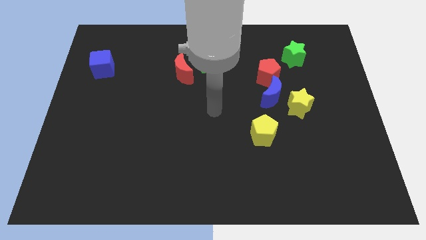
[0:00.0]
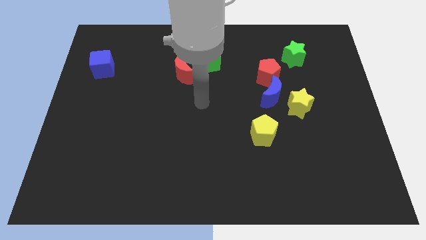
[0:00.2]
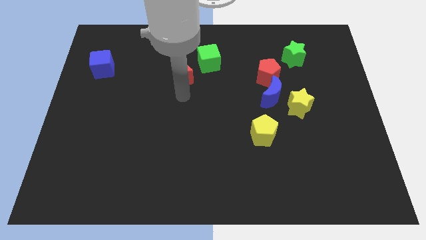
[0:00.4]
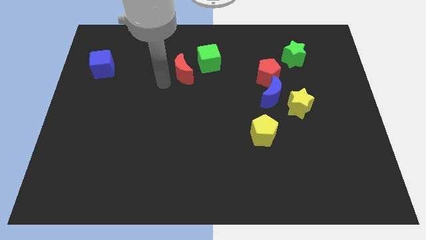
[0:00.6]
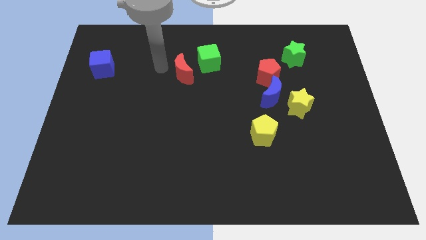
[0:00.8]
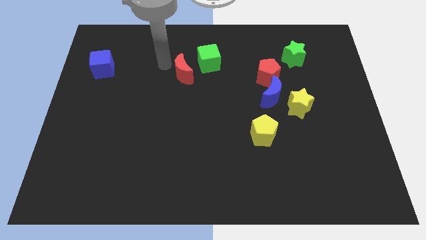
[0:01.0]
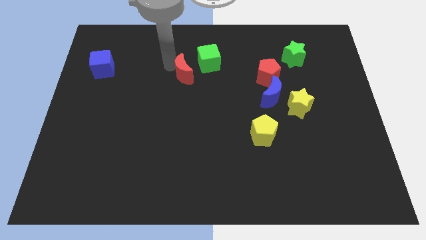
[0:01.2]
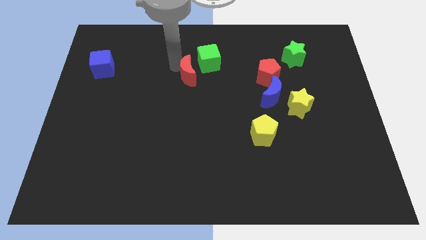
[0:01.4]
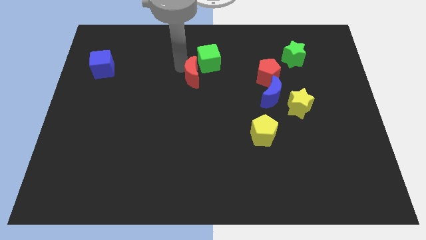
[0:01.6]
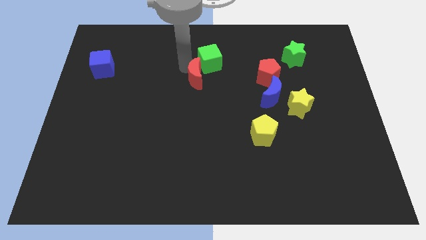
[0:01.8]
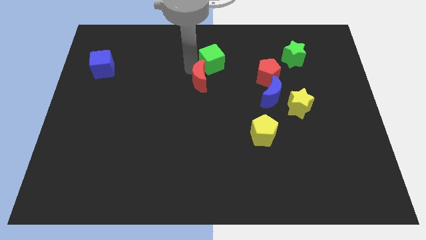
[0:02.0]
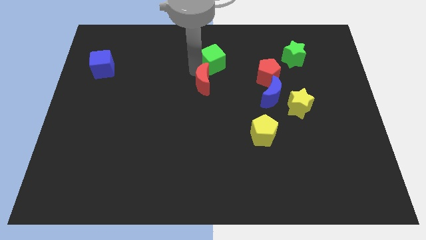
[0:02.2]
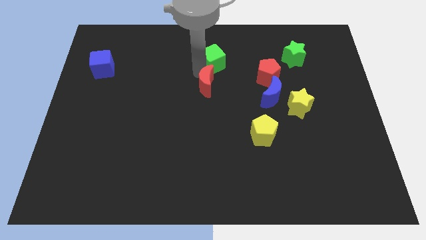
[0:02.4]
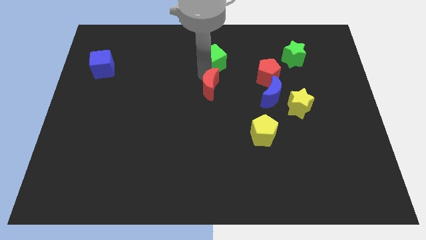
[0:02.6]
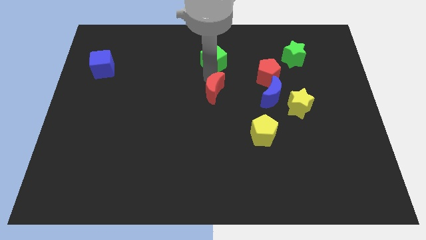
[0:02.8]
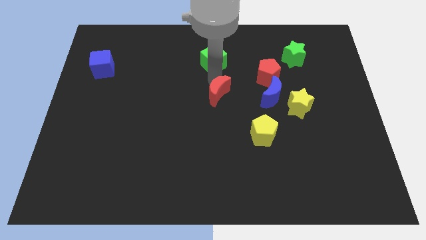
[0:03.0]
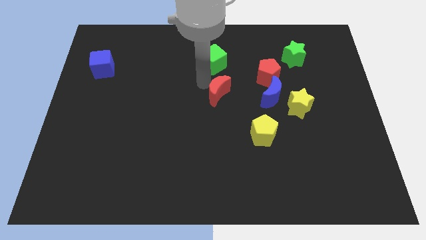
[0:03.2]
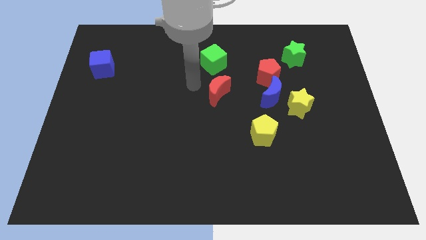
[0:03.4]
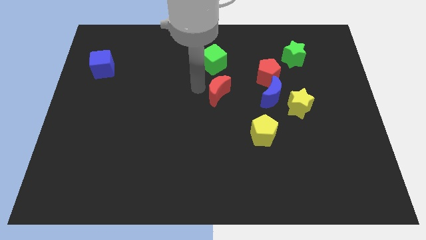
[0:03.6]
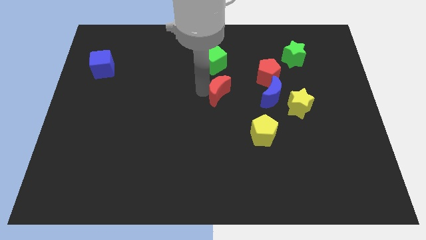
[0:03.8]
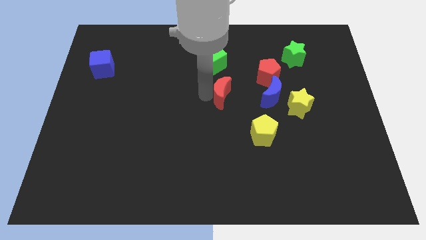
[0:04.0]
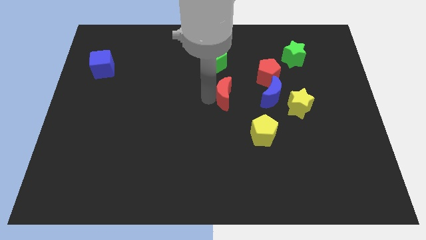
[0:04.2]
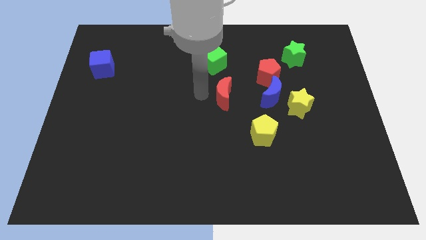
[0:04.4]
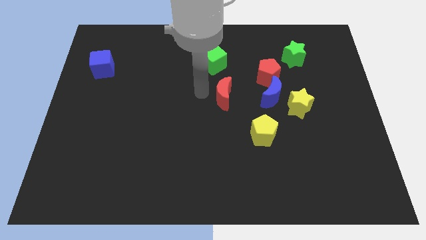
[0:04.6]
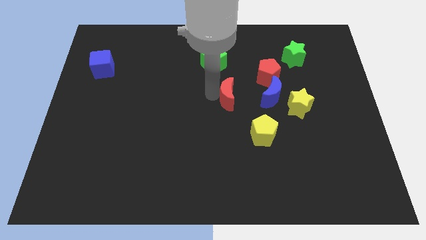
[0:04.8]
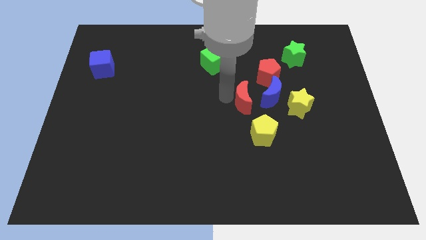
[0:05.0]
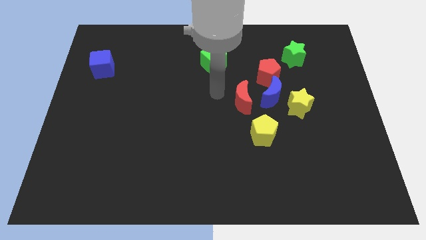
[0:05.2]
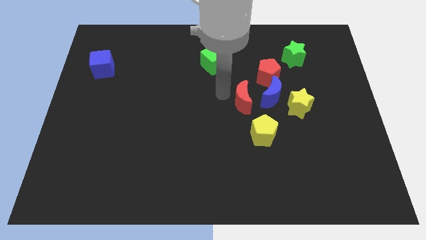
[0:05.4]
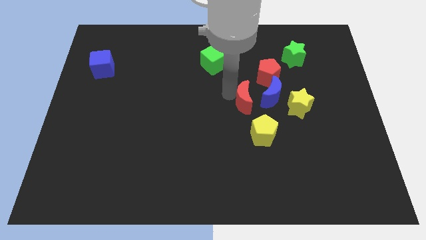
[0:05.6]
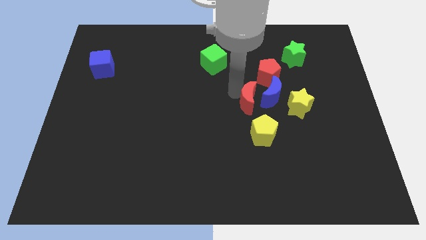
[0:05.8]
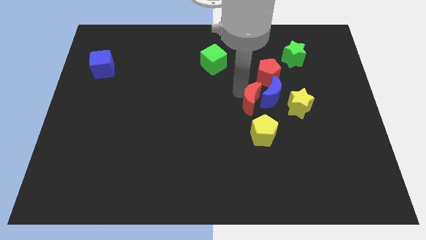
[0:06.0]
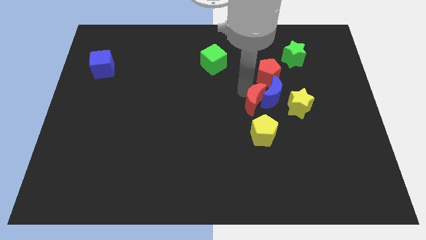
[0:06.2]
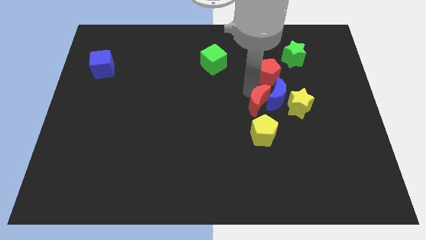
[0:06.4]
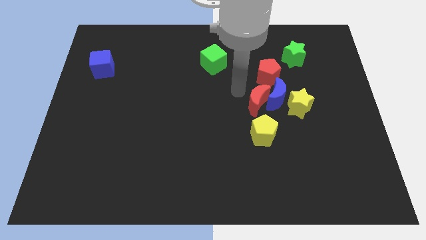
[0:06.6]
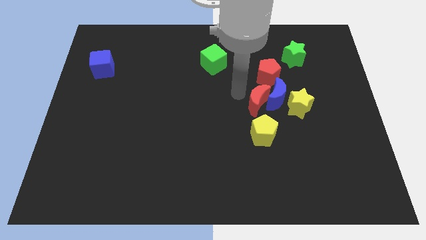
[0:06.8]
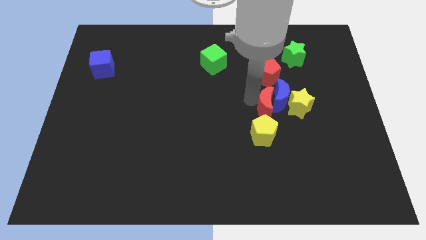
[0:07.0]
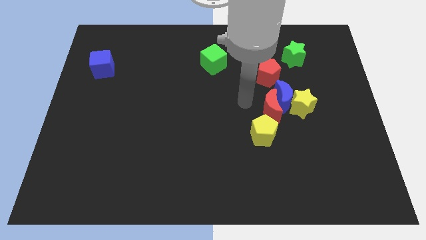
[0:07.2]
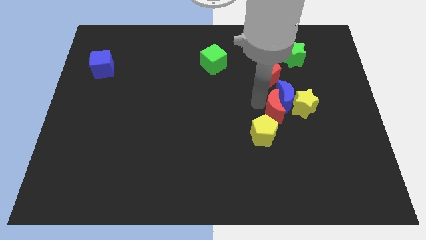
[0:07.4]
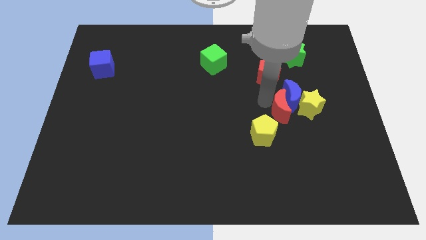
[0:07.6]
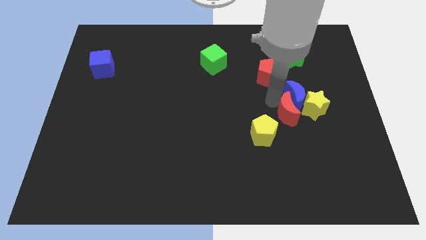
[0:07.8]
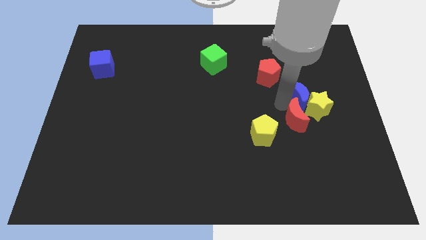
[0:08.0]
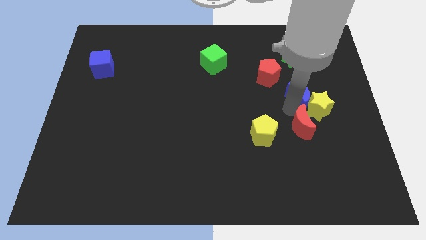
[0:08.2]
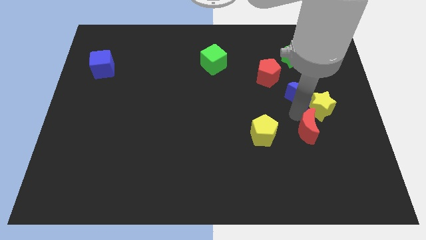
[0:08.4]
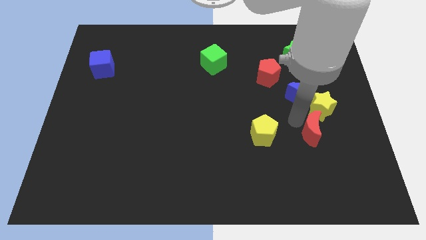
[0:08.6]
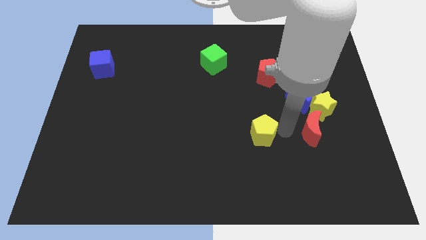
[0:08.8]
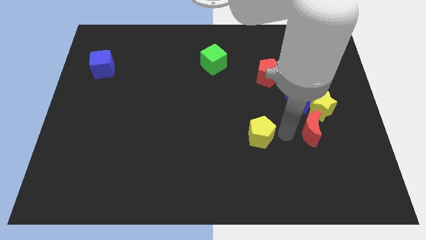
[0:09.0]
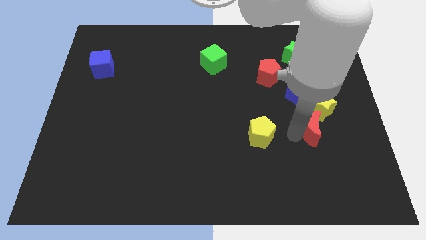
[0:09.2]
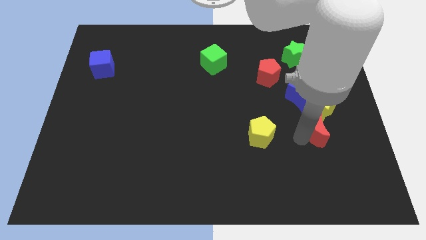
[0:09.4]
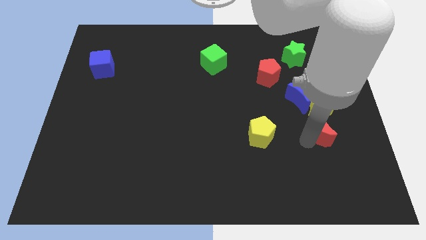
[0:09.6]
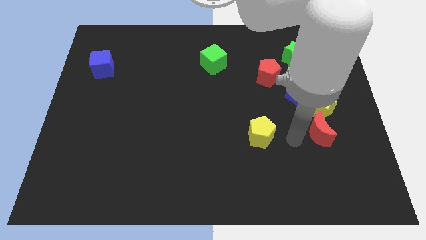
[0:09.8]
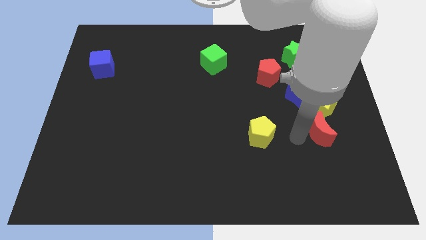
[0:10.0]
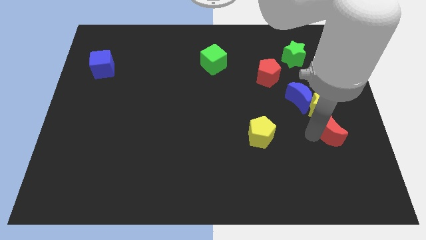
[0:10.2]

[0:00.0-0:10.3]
move the red moon to the bottom right side of the yellow star

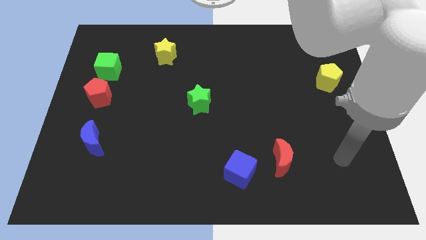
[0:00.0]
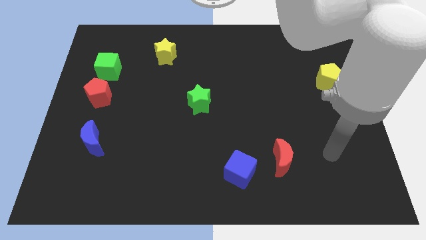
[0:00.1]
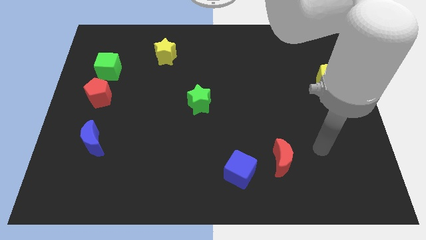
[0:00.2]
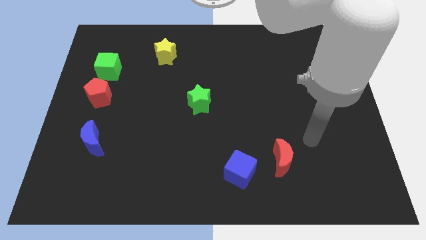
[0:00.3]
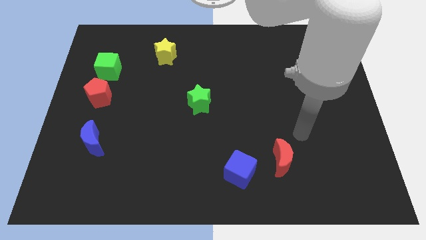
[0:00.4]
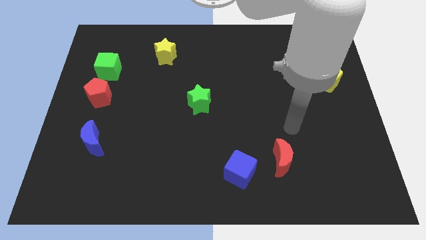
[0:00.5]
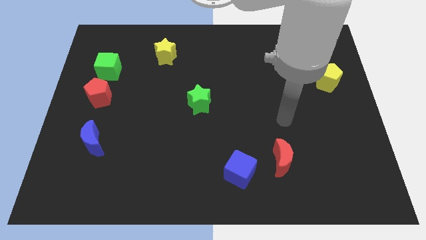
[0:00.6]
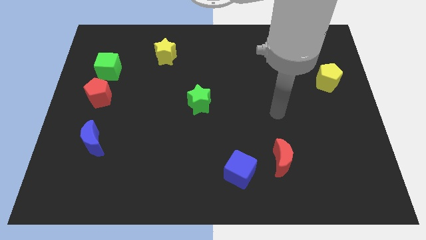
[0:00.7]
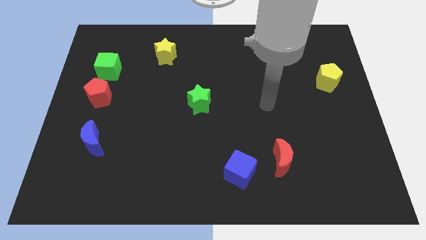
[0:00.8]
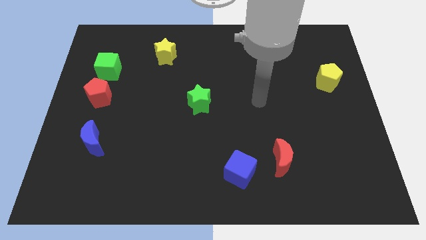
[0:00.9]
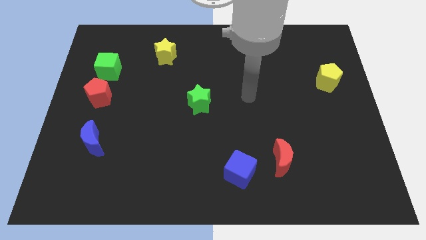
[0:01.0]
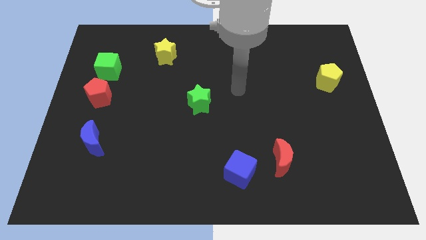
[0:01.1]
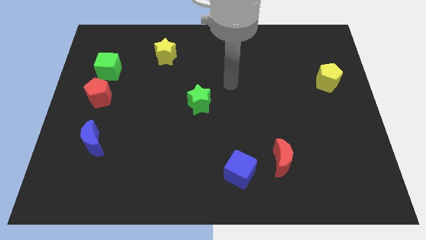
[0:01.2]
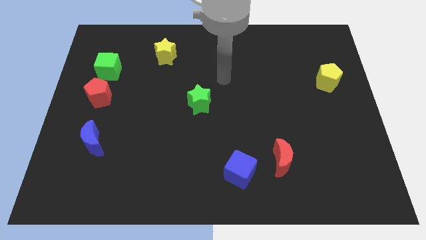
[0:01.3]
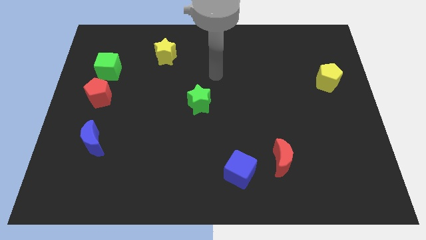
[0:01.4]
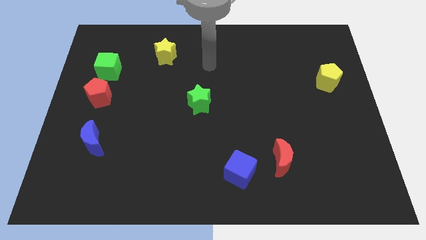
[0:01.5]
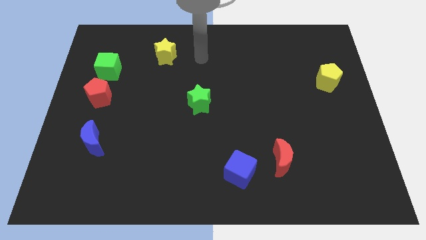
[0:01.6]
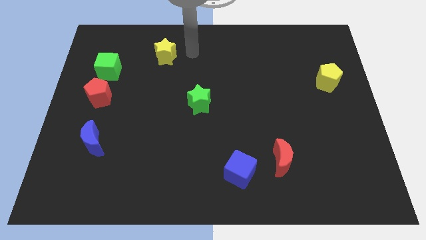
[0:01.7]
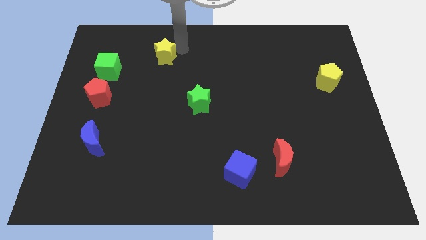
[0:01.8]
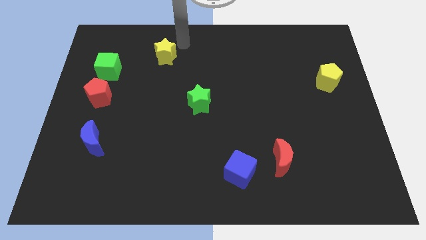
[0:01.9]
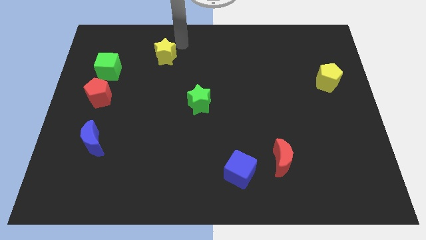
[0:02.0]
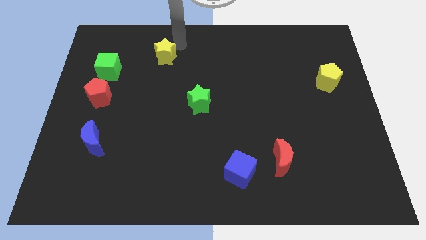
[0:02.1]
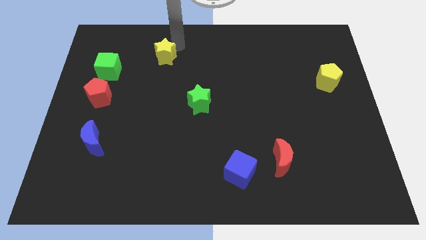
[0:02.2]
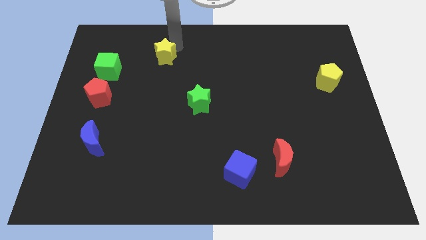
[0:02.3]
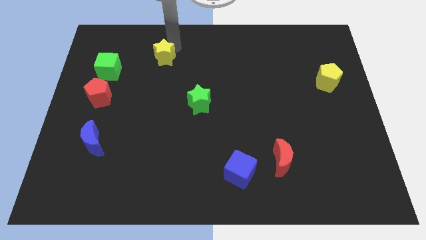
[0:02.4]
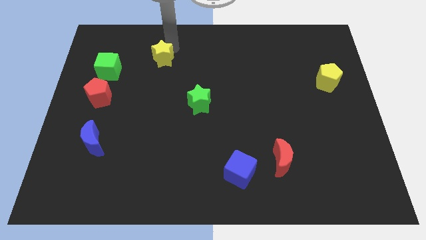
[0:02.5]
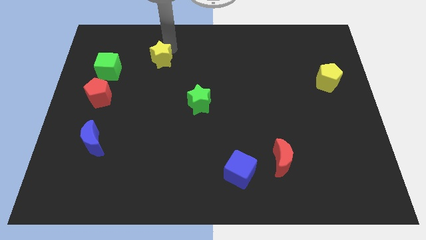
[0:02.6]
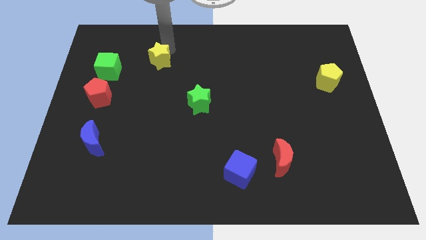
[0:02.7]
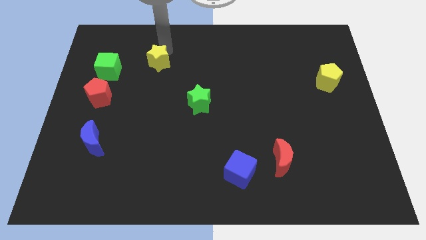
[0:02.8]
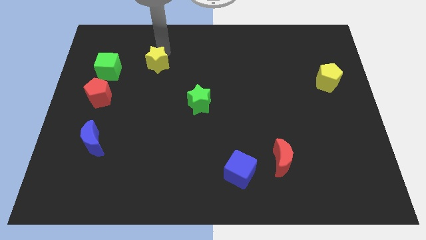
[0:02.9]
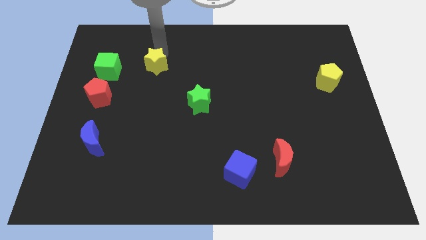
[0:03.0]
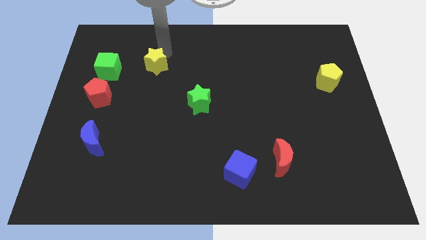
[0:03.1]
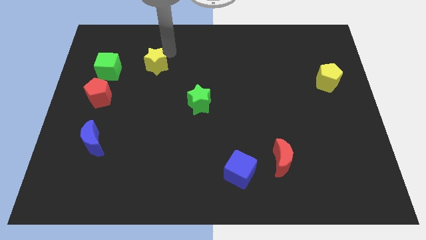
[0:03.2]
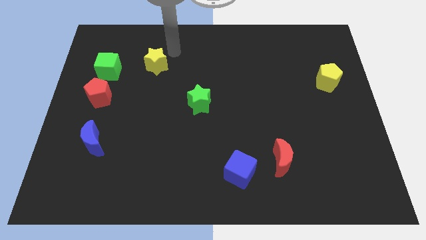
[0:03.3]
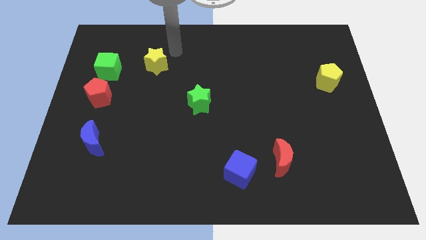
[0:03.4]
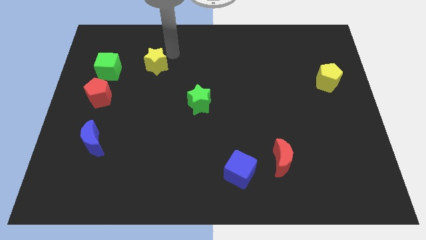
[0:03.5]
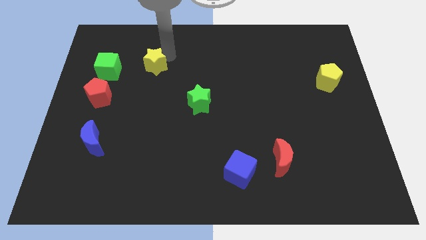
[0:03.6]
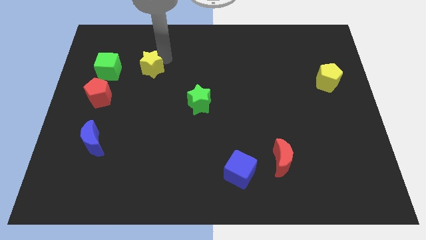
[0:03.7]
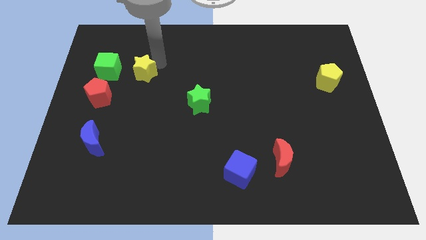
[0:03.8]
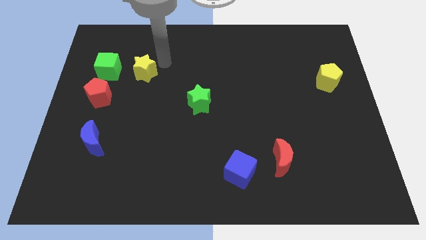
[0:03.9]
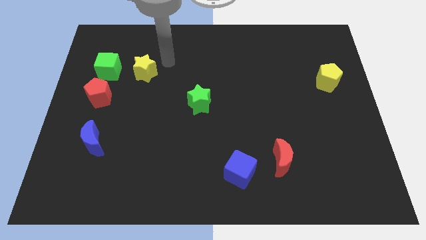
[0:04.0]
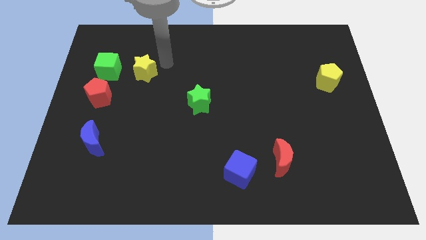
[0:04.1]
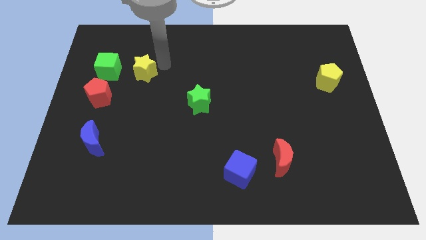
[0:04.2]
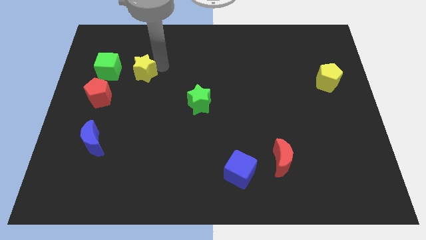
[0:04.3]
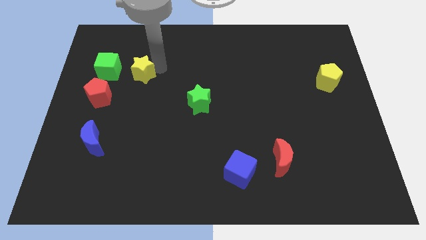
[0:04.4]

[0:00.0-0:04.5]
move the yellow star to the top right side of the red pentagon
